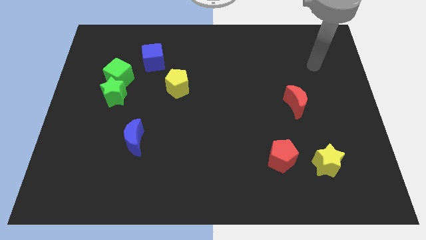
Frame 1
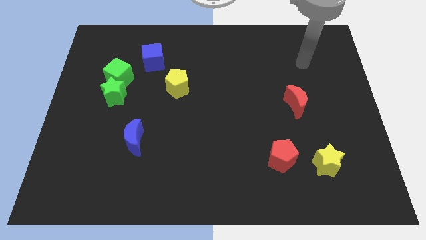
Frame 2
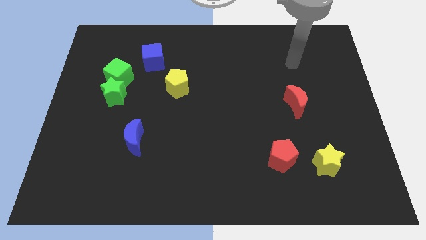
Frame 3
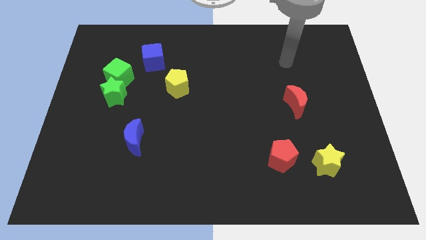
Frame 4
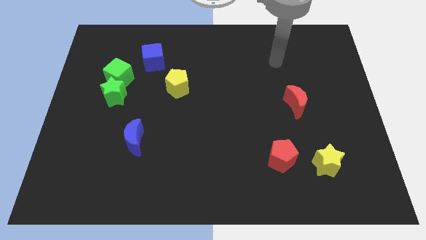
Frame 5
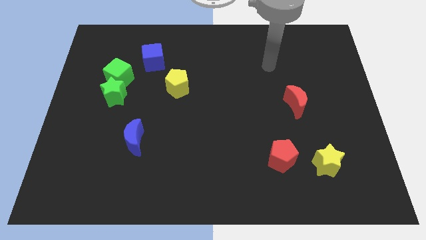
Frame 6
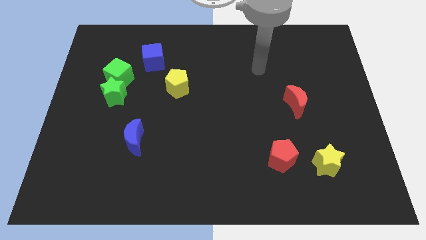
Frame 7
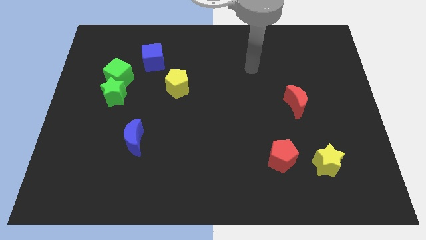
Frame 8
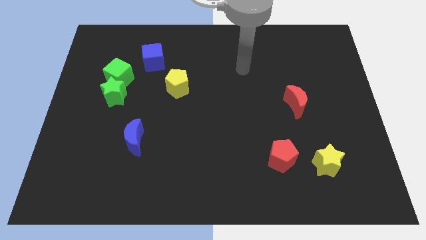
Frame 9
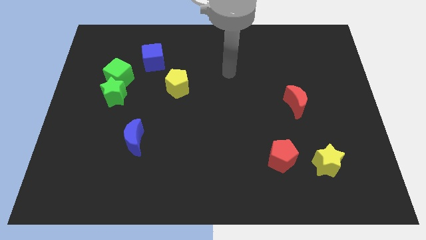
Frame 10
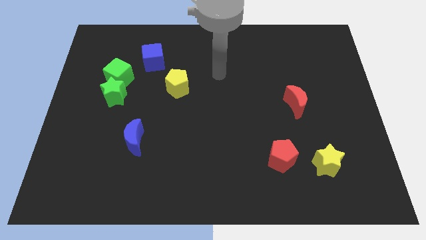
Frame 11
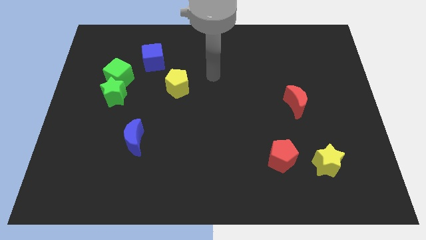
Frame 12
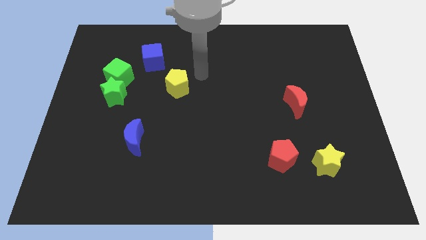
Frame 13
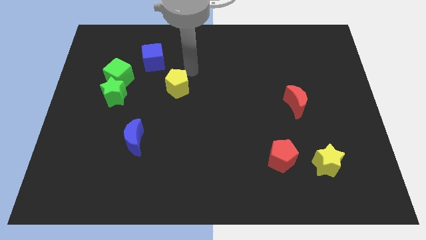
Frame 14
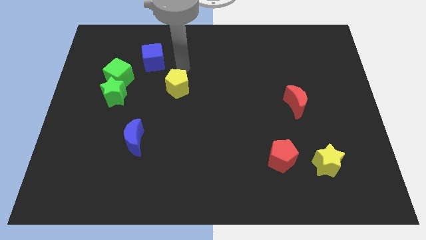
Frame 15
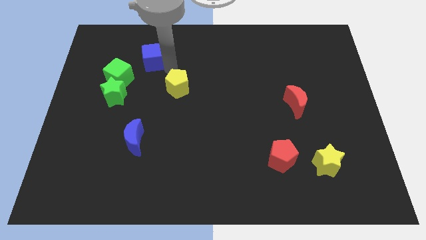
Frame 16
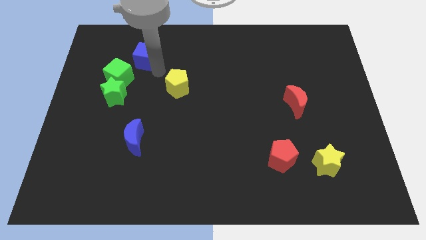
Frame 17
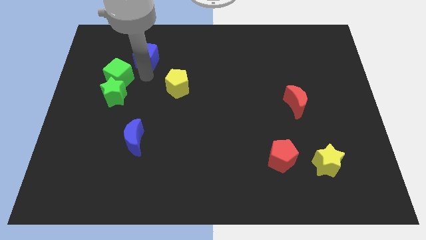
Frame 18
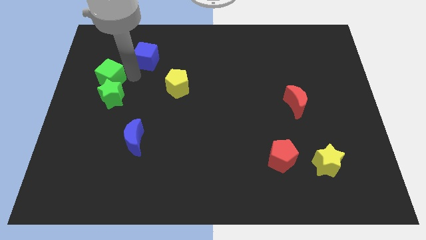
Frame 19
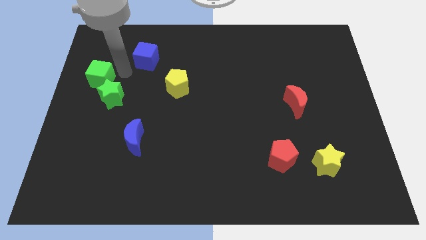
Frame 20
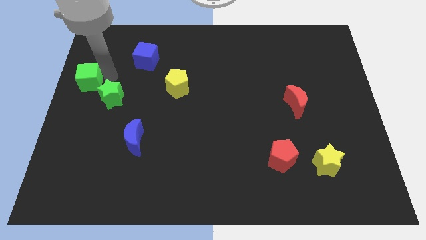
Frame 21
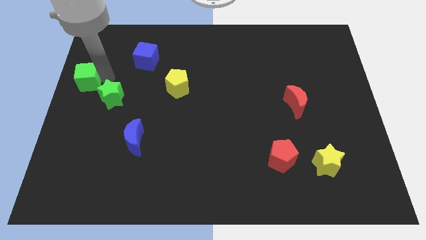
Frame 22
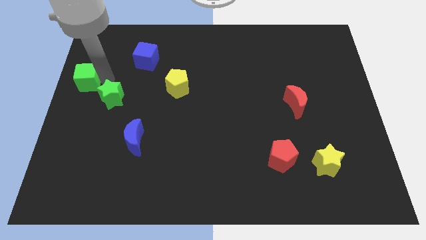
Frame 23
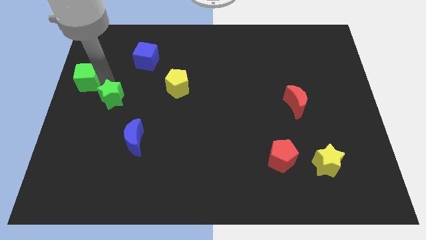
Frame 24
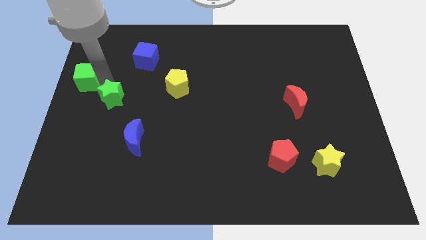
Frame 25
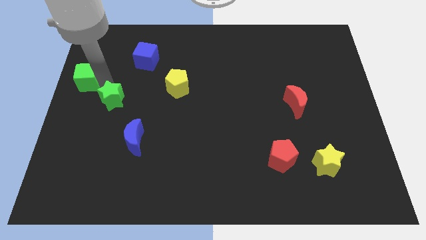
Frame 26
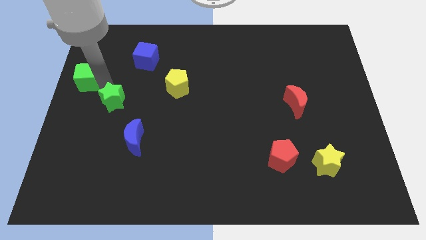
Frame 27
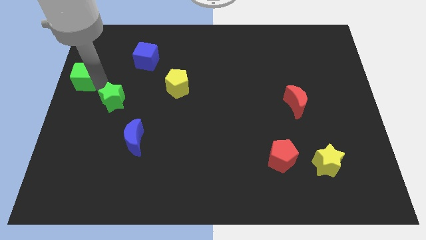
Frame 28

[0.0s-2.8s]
pull the green star apart from the green cube

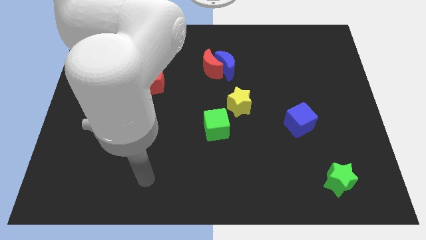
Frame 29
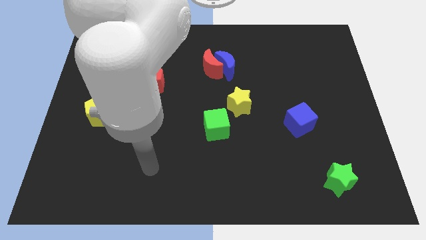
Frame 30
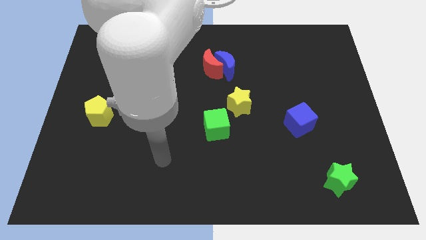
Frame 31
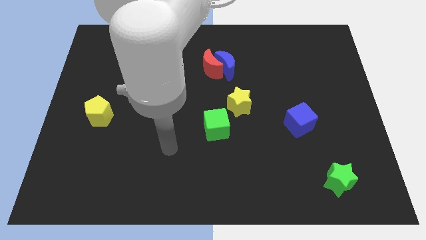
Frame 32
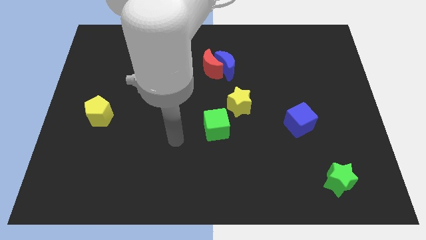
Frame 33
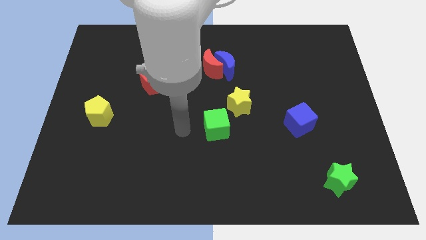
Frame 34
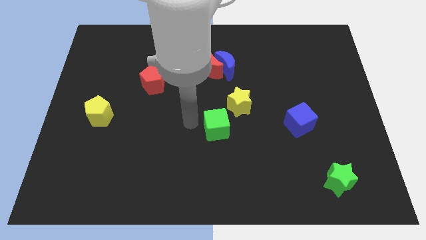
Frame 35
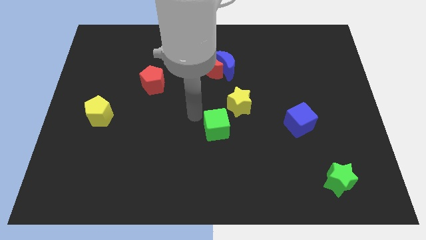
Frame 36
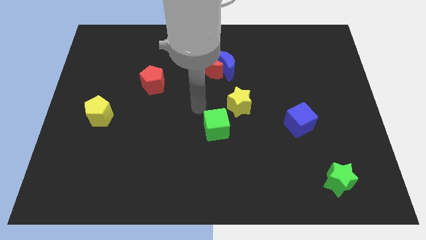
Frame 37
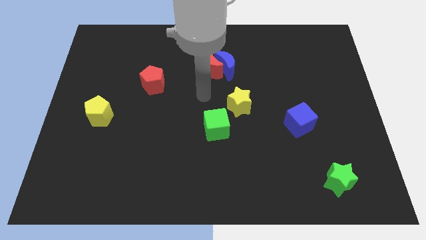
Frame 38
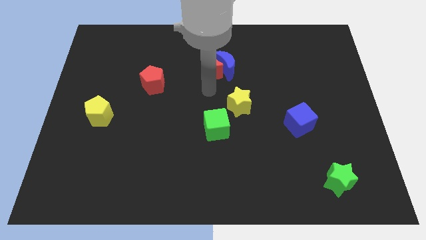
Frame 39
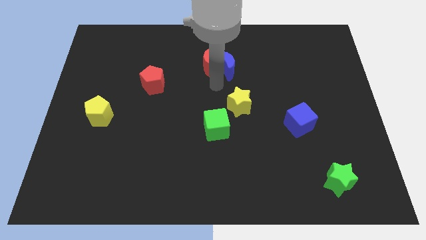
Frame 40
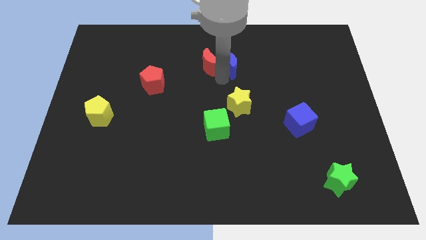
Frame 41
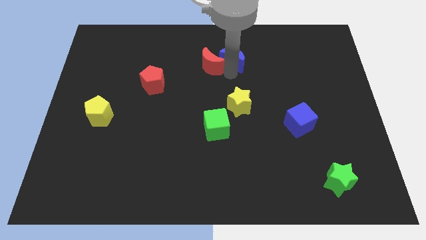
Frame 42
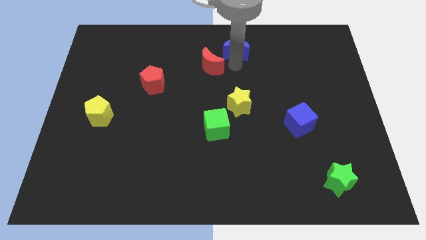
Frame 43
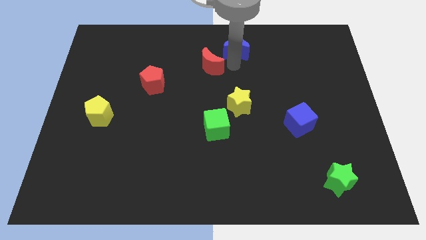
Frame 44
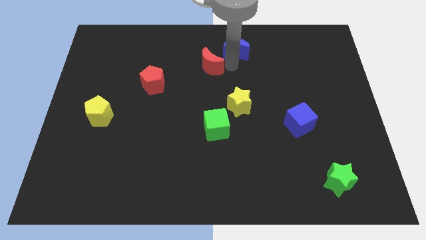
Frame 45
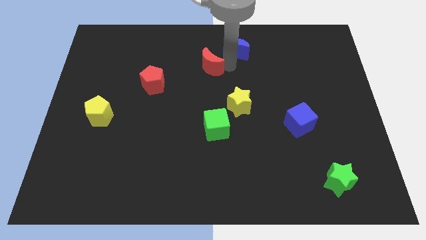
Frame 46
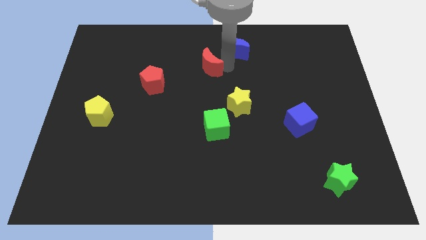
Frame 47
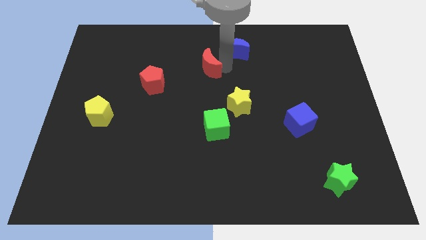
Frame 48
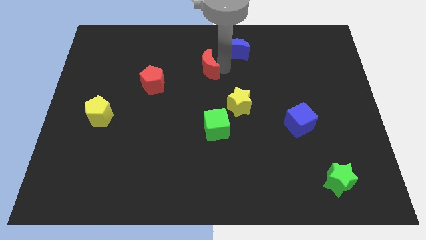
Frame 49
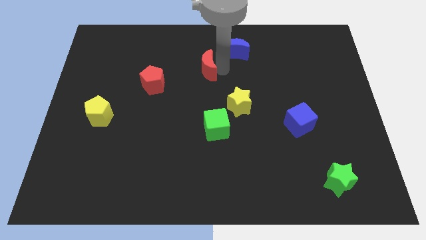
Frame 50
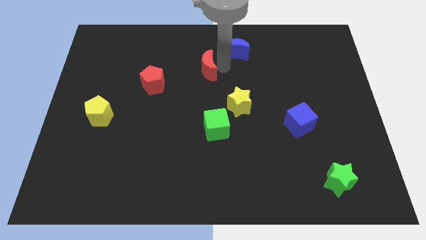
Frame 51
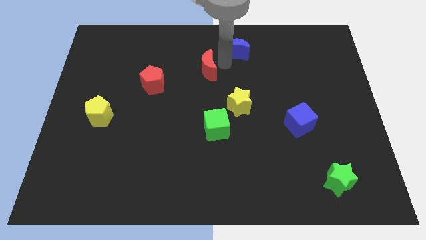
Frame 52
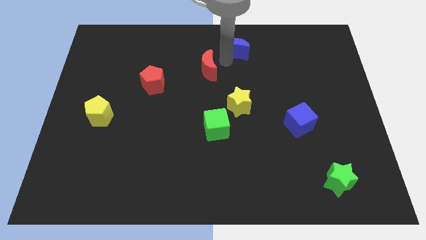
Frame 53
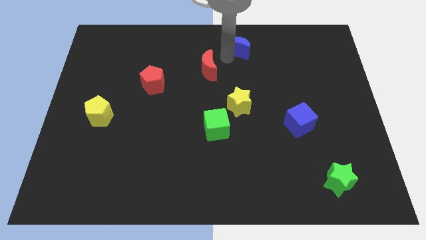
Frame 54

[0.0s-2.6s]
move the red moon away from the blue moon

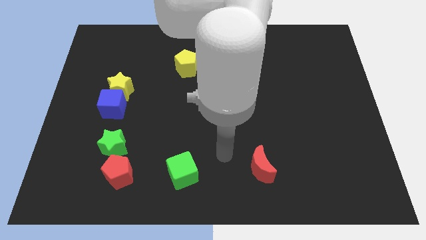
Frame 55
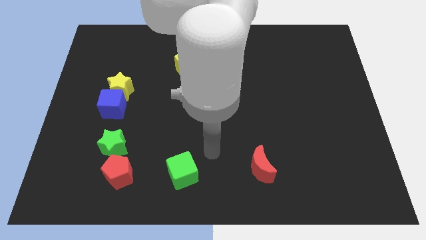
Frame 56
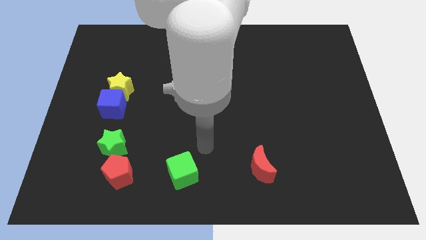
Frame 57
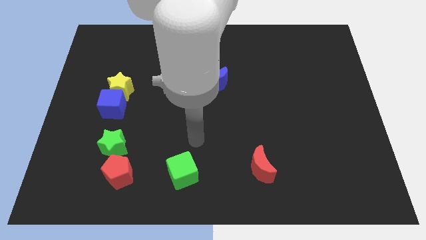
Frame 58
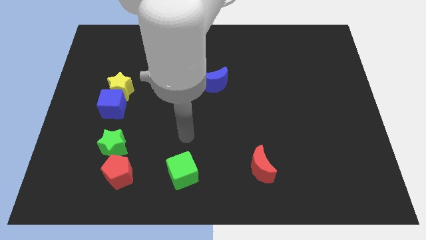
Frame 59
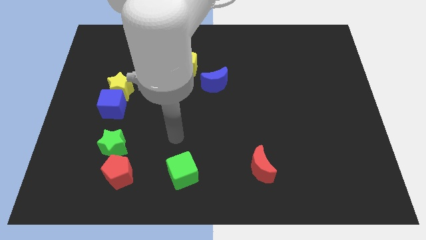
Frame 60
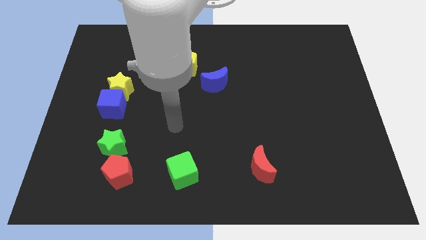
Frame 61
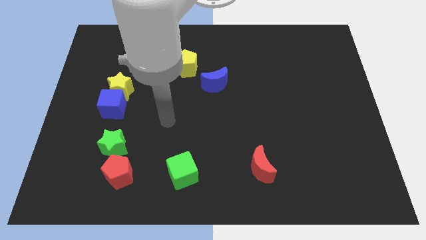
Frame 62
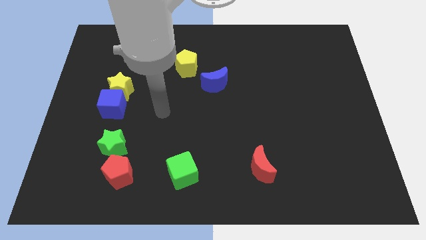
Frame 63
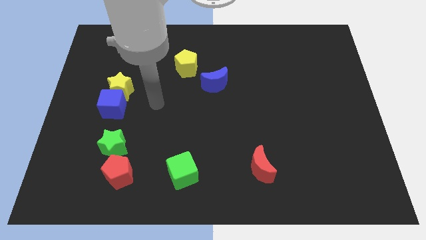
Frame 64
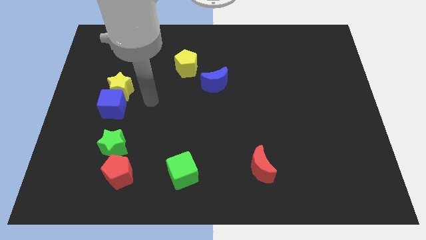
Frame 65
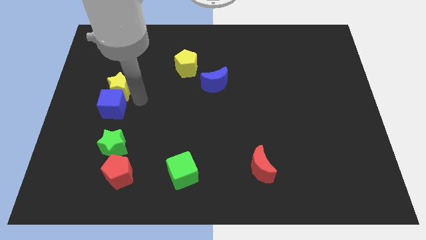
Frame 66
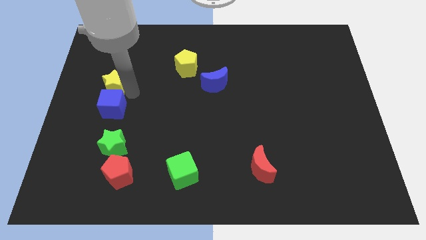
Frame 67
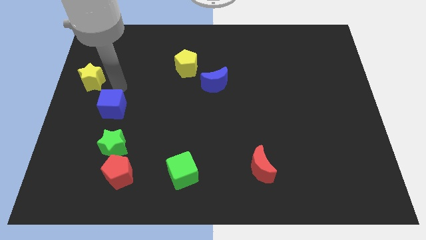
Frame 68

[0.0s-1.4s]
separate the blue cube from the yellow star

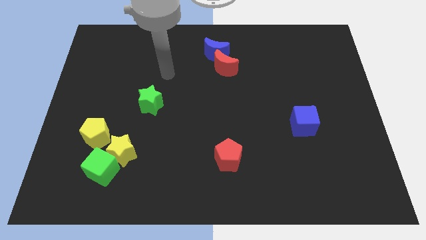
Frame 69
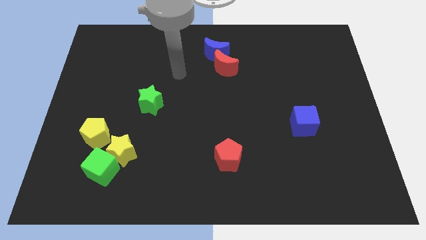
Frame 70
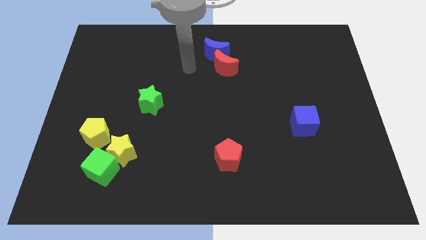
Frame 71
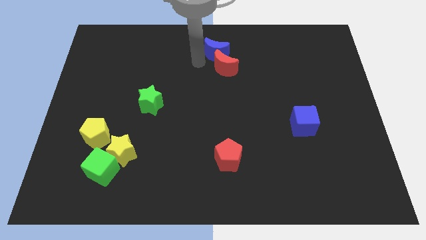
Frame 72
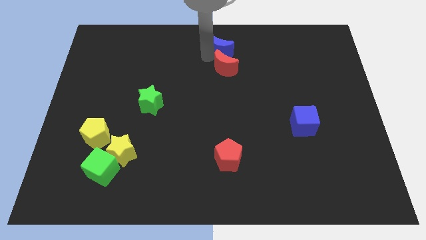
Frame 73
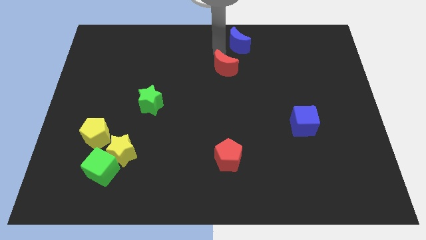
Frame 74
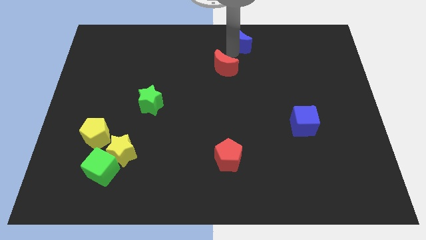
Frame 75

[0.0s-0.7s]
separate the red moon from the blue moon

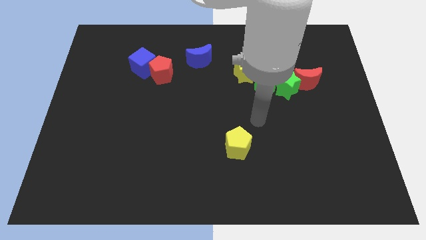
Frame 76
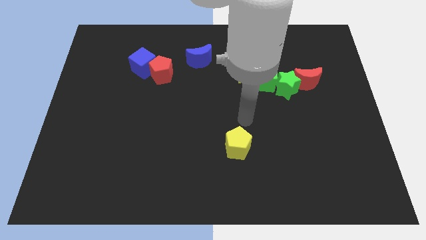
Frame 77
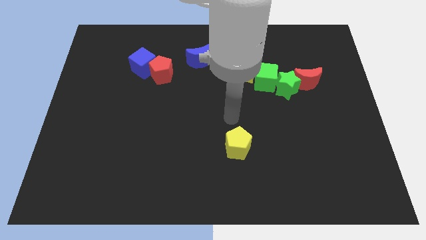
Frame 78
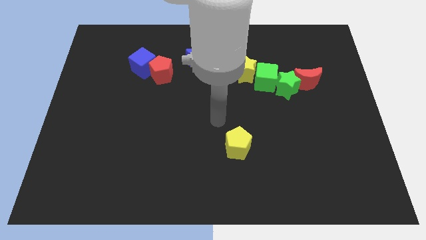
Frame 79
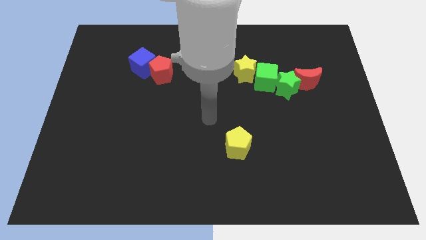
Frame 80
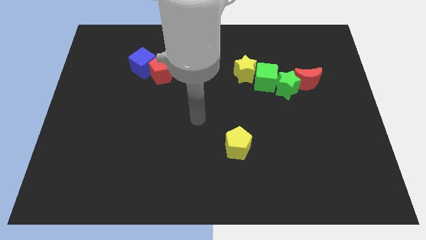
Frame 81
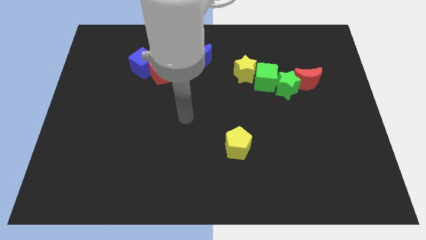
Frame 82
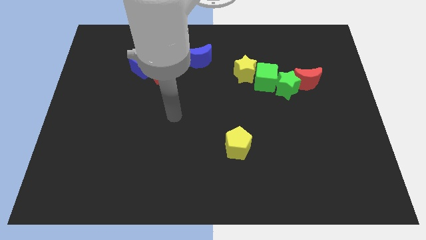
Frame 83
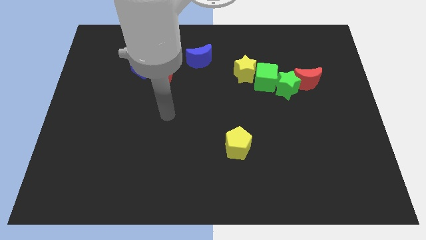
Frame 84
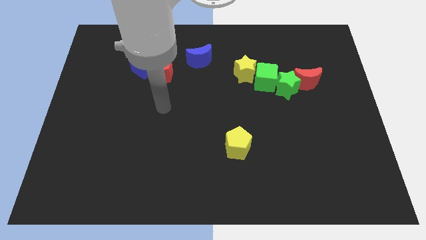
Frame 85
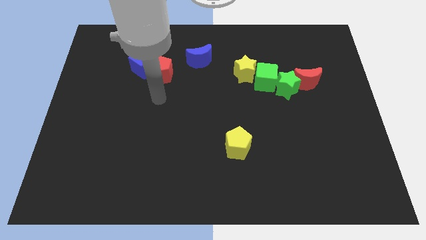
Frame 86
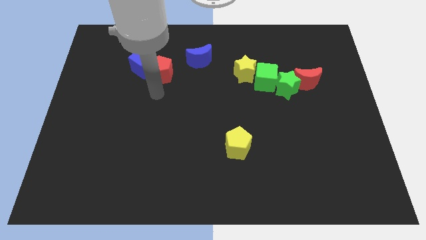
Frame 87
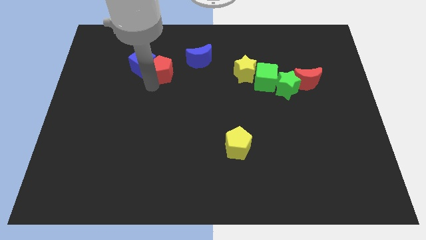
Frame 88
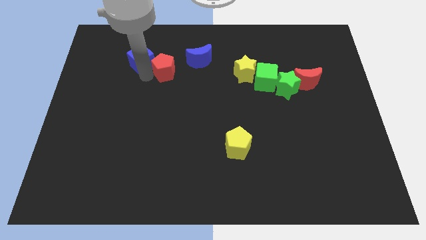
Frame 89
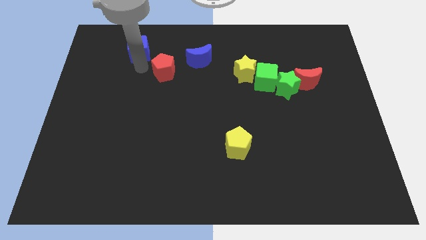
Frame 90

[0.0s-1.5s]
move the red pentagon away from the blue cube

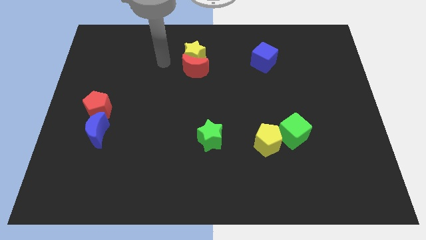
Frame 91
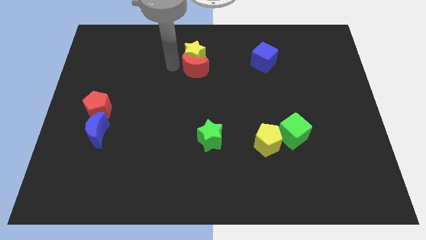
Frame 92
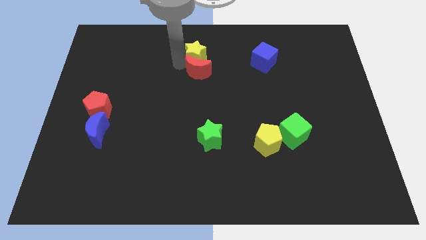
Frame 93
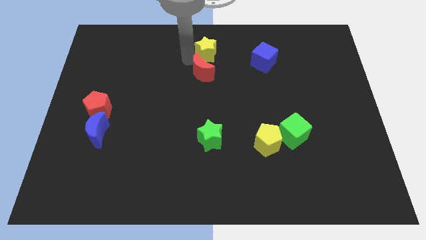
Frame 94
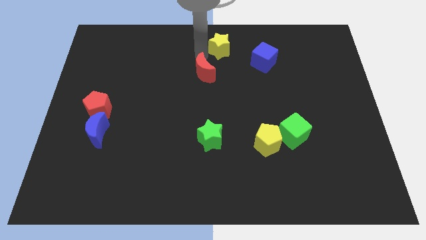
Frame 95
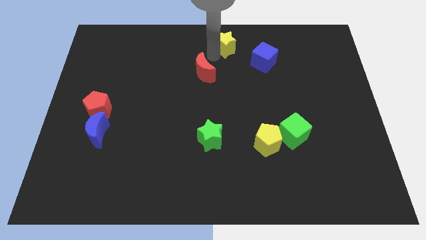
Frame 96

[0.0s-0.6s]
pull the red moon apart from the yellow star
